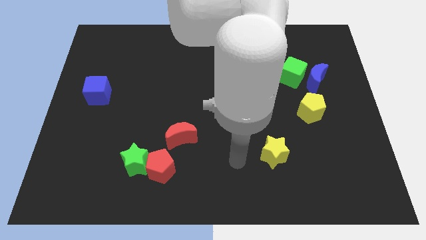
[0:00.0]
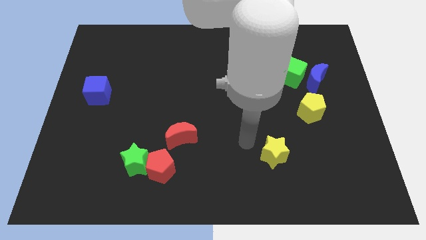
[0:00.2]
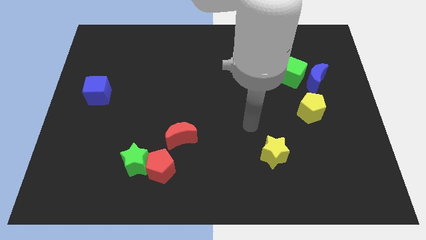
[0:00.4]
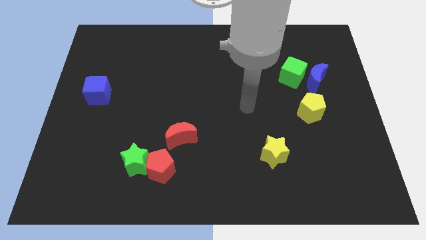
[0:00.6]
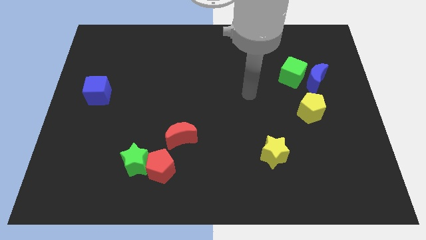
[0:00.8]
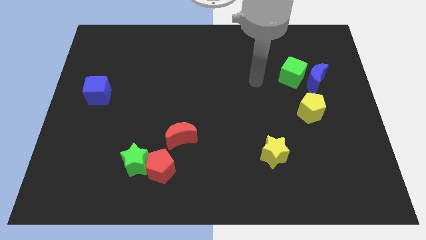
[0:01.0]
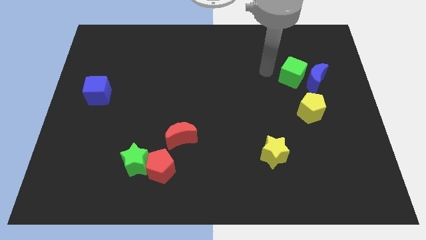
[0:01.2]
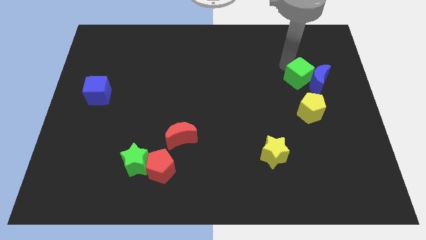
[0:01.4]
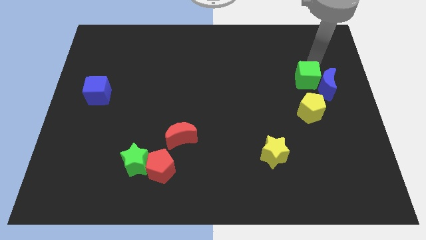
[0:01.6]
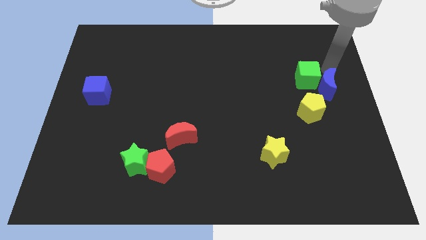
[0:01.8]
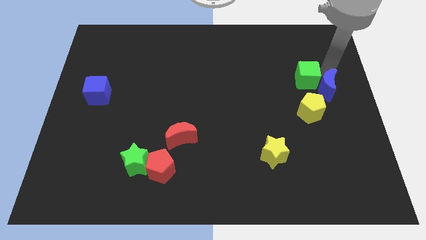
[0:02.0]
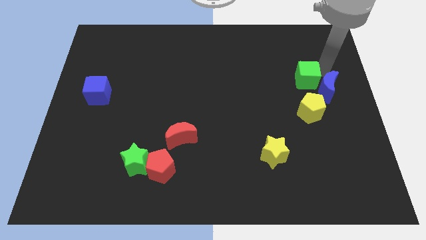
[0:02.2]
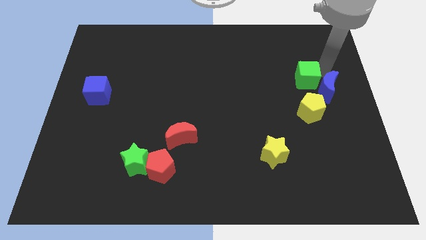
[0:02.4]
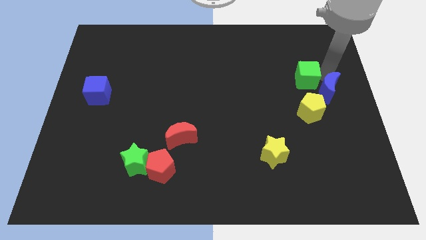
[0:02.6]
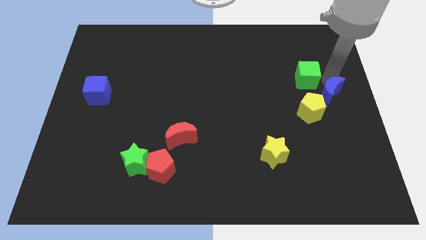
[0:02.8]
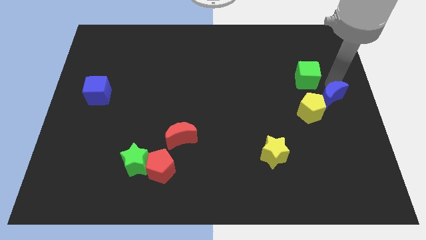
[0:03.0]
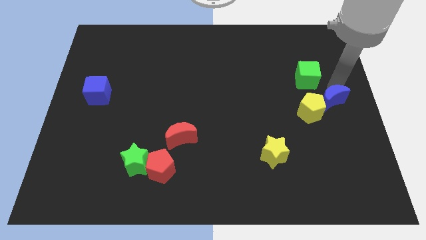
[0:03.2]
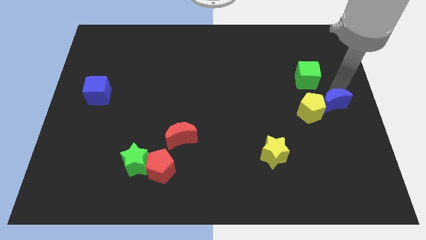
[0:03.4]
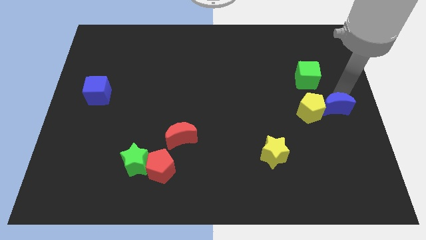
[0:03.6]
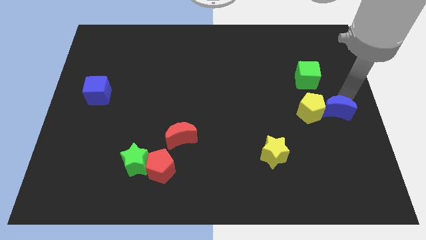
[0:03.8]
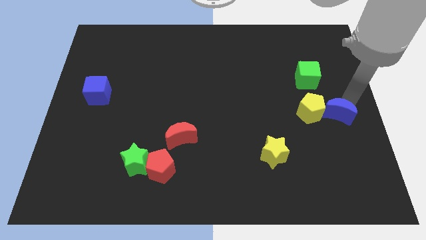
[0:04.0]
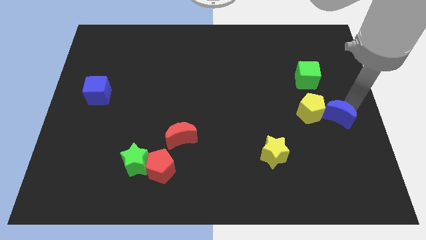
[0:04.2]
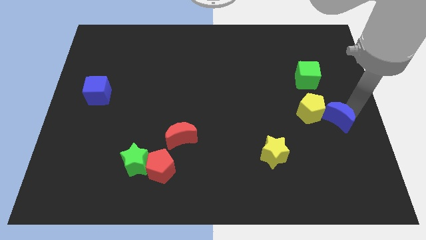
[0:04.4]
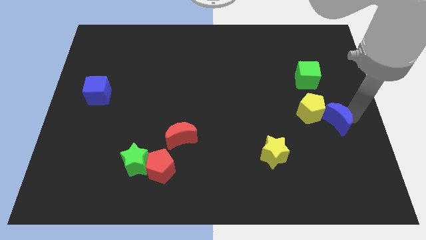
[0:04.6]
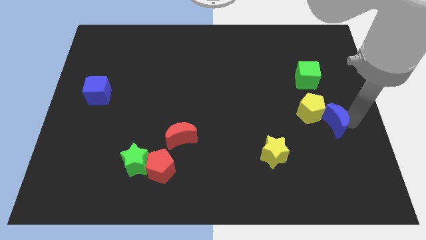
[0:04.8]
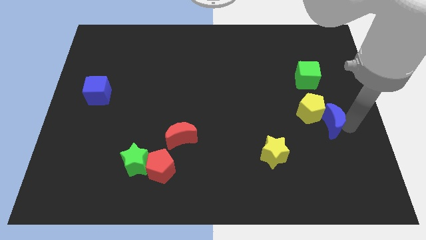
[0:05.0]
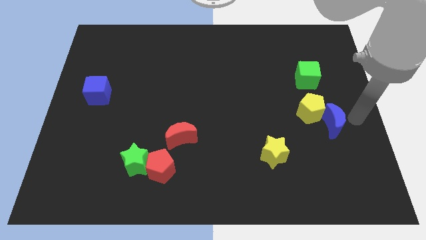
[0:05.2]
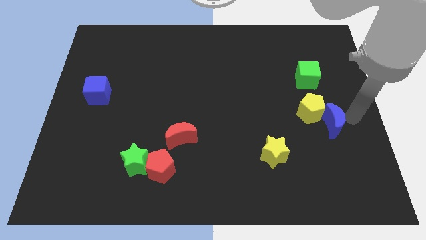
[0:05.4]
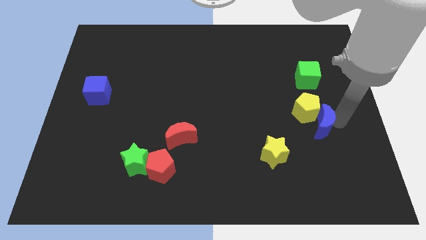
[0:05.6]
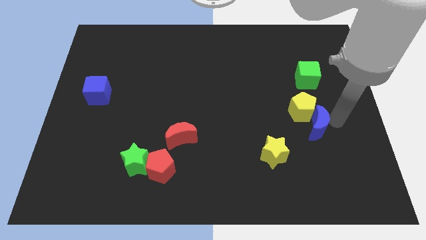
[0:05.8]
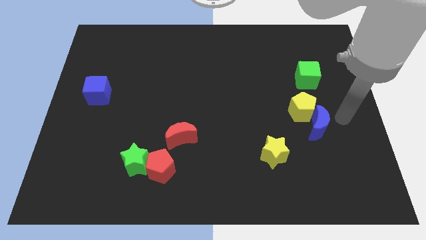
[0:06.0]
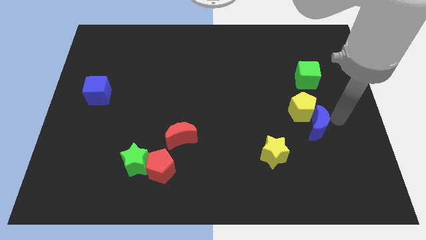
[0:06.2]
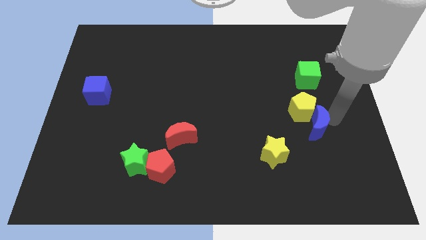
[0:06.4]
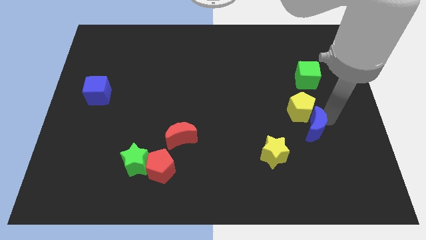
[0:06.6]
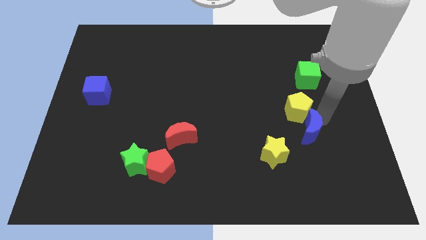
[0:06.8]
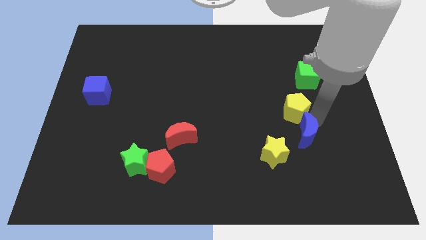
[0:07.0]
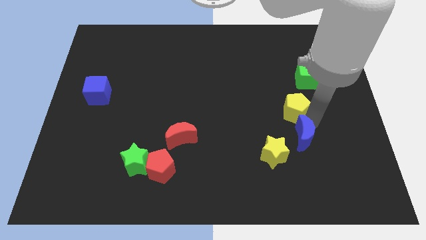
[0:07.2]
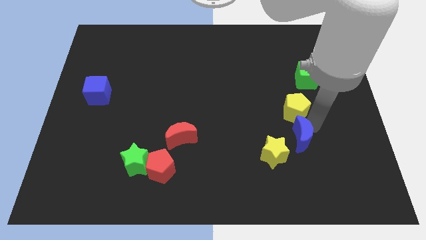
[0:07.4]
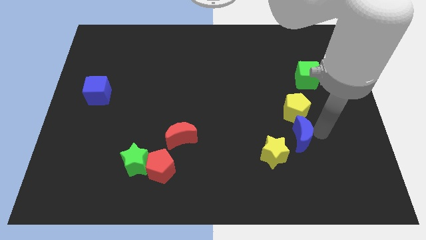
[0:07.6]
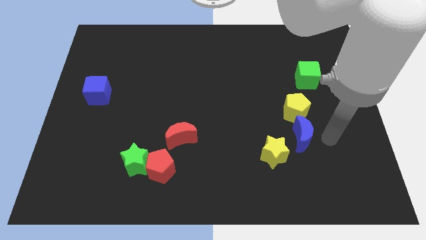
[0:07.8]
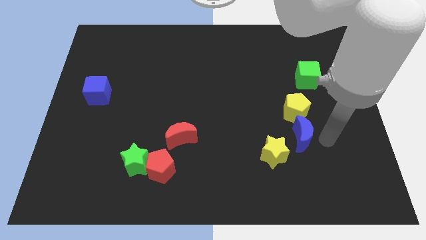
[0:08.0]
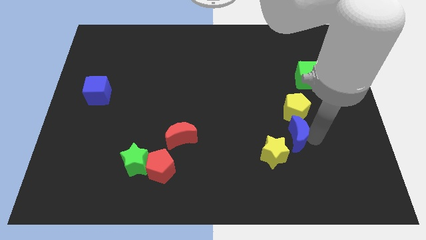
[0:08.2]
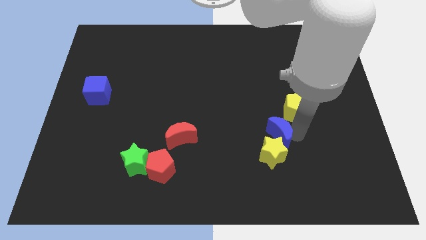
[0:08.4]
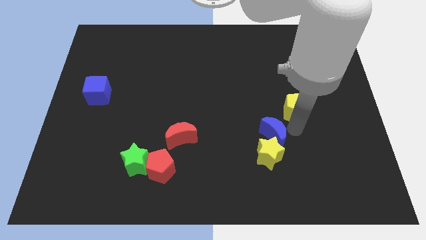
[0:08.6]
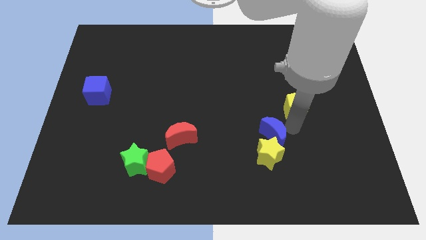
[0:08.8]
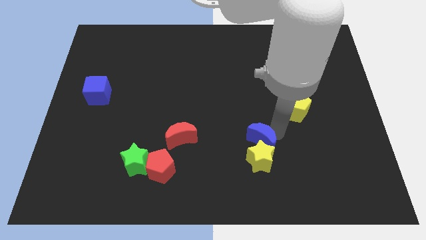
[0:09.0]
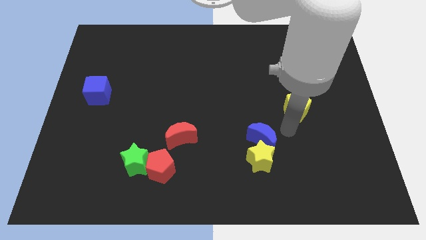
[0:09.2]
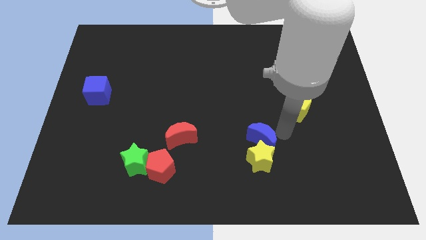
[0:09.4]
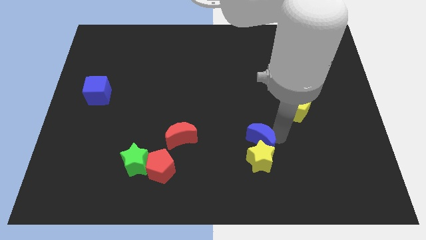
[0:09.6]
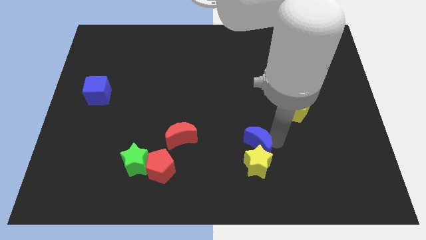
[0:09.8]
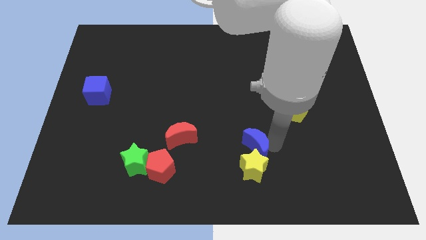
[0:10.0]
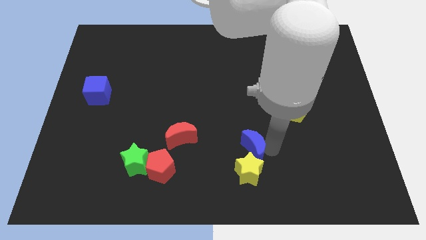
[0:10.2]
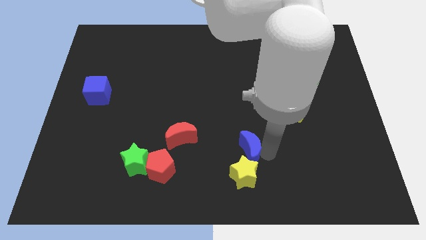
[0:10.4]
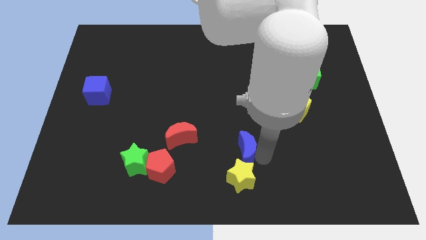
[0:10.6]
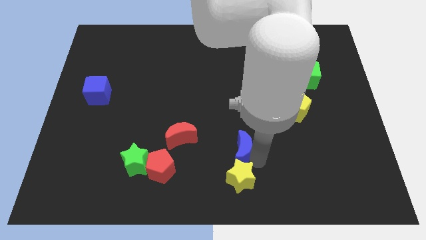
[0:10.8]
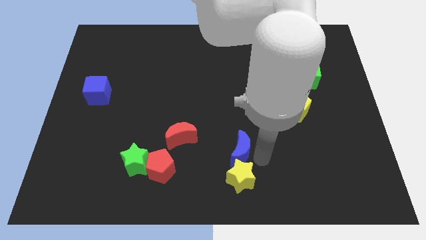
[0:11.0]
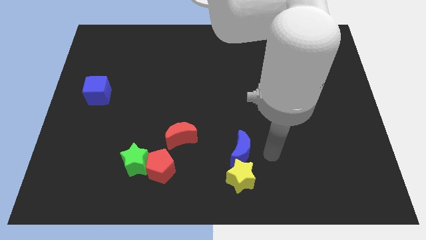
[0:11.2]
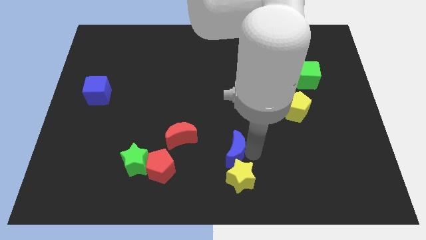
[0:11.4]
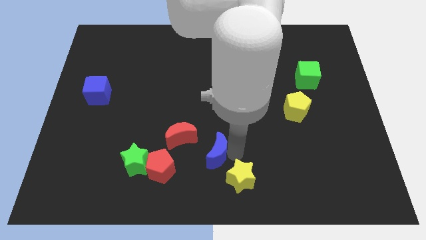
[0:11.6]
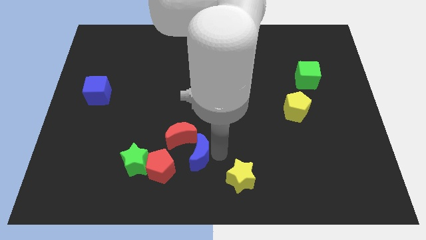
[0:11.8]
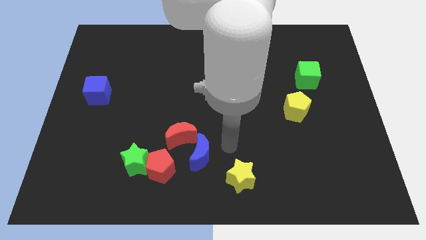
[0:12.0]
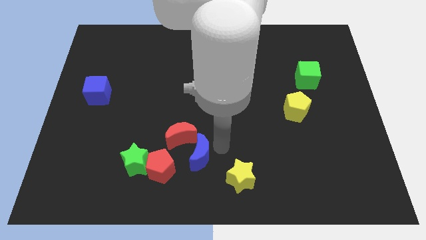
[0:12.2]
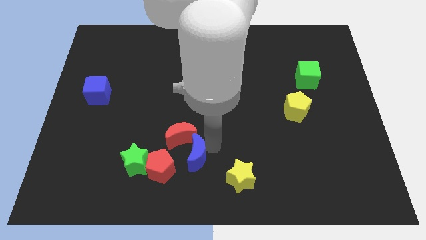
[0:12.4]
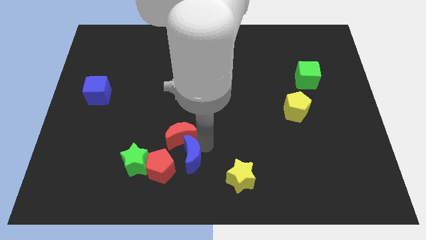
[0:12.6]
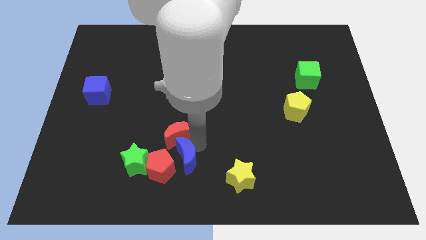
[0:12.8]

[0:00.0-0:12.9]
put the blue moon to the red pentagon
